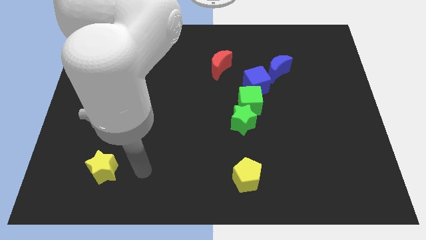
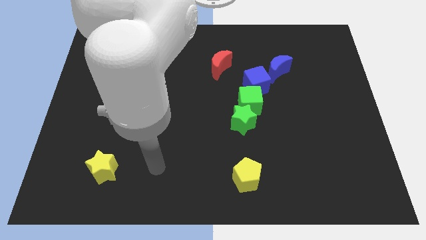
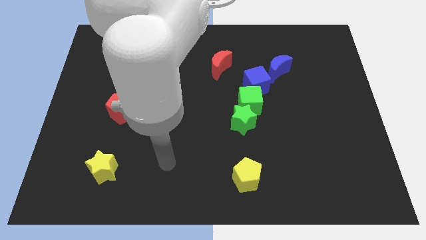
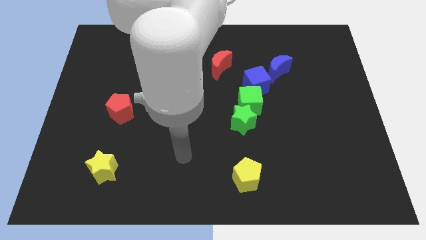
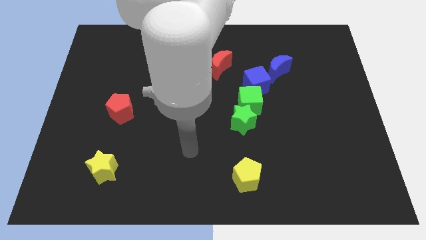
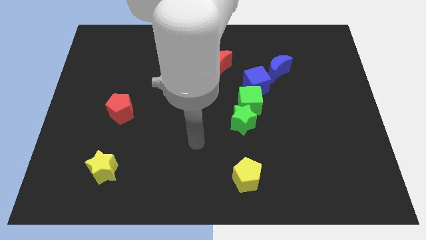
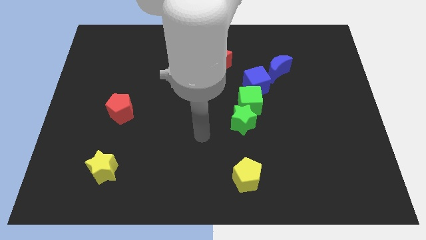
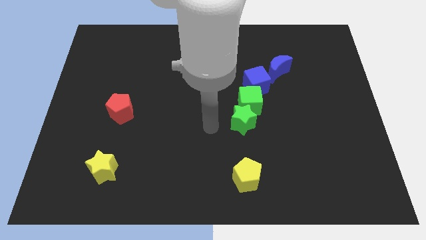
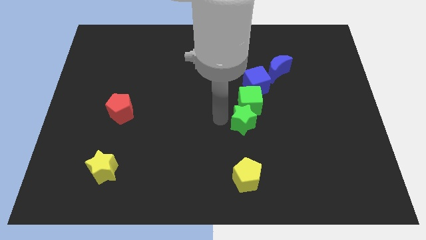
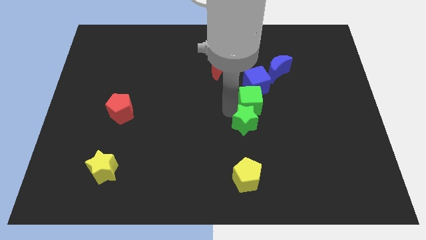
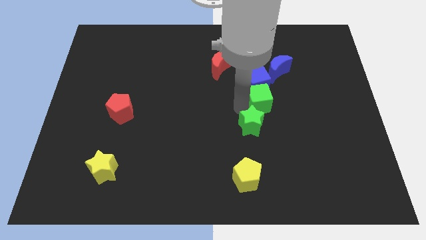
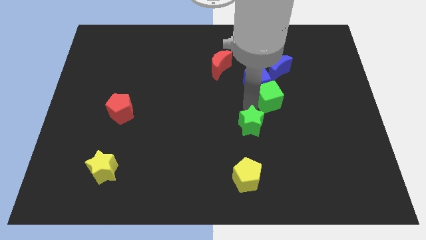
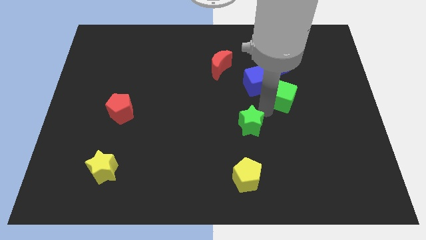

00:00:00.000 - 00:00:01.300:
separate the green star from the green cube

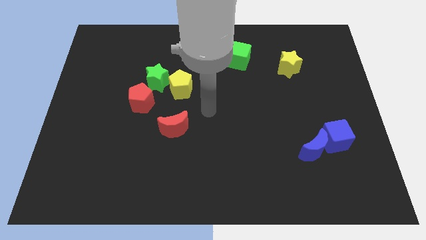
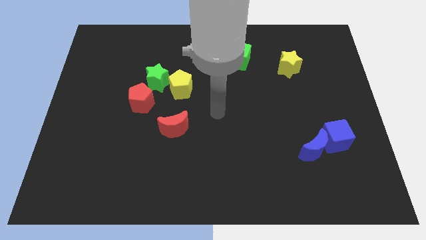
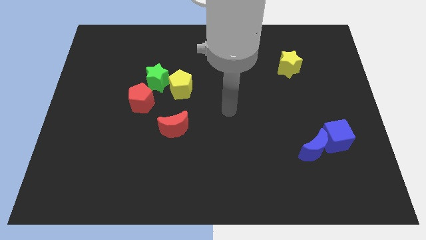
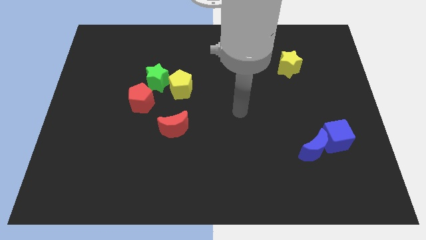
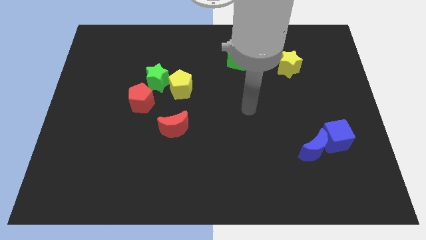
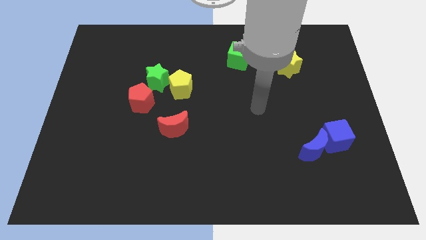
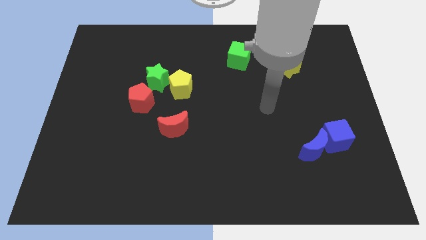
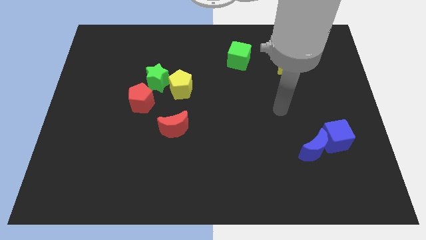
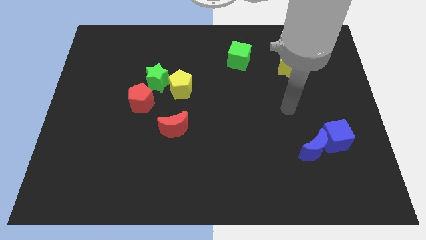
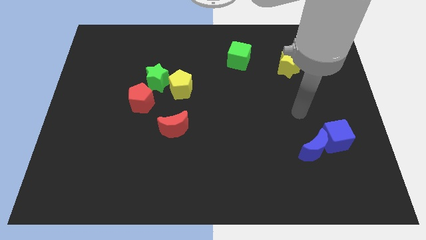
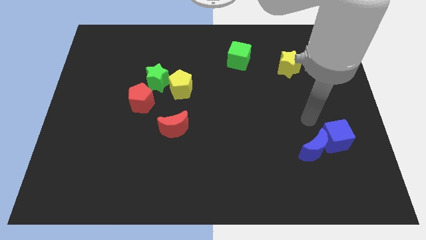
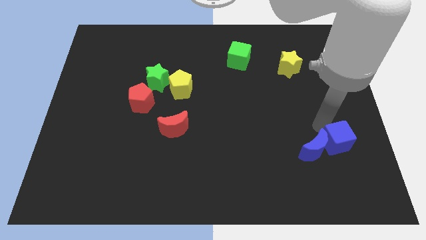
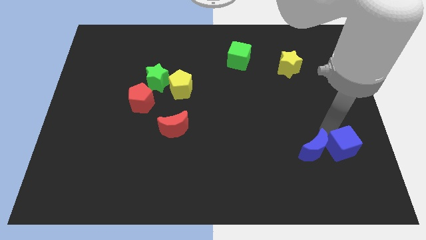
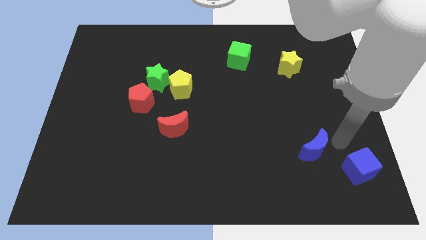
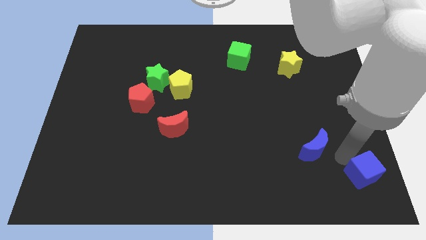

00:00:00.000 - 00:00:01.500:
separate the blue moon from the blue cube

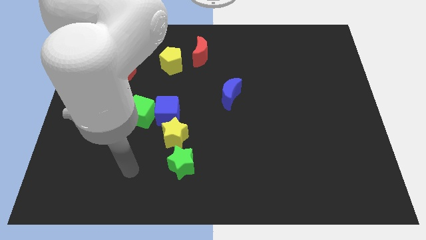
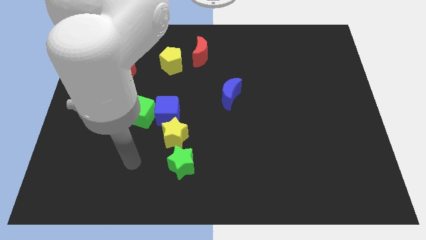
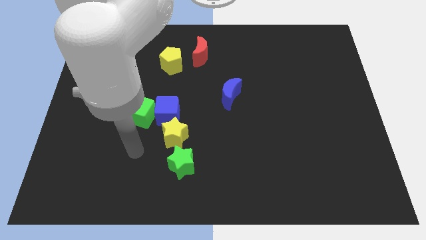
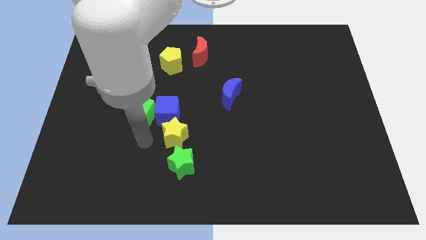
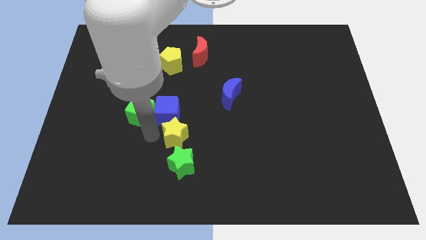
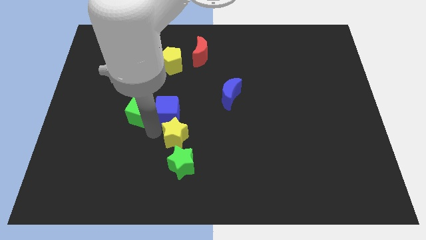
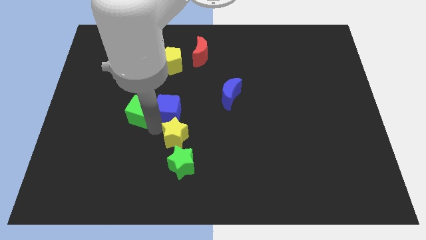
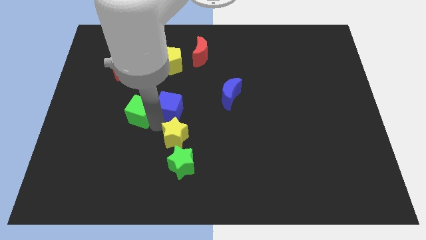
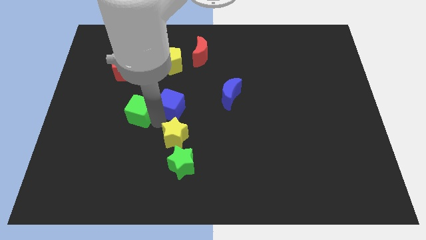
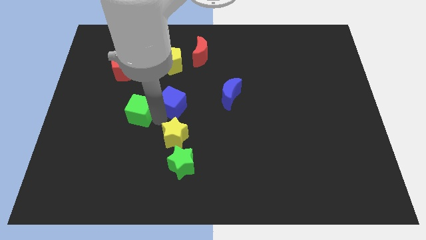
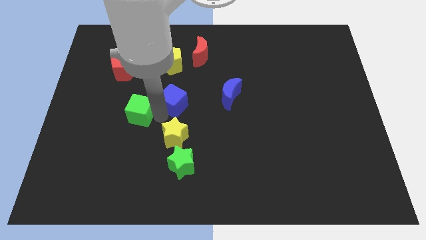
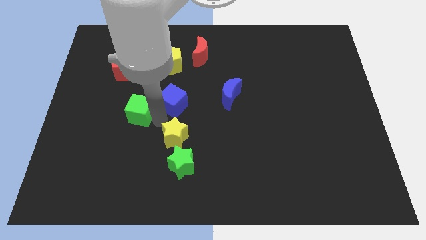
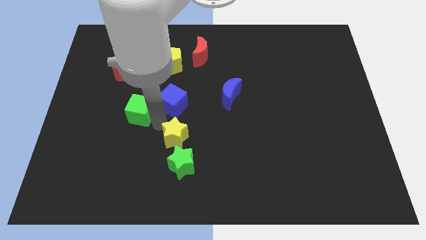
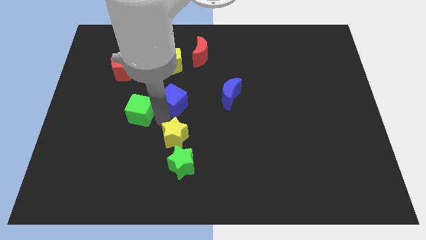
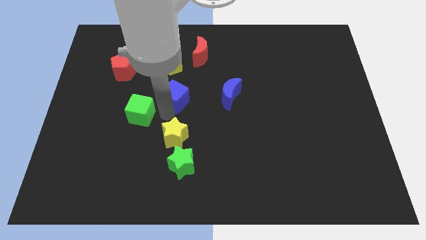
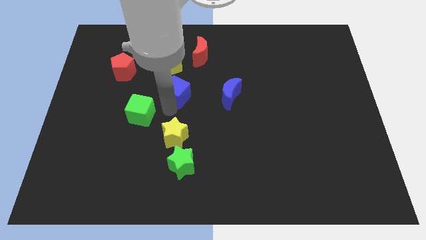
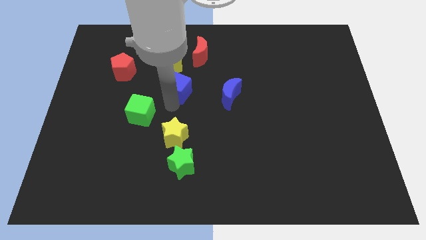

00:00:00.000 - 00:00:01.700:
separate the blue cube from the green cube and yellow star

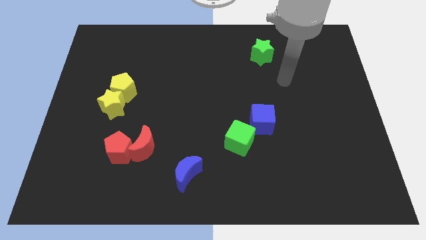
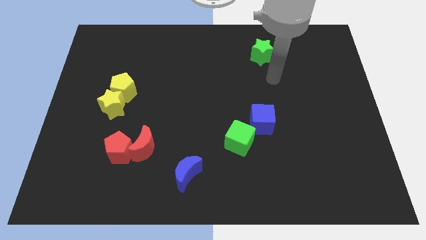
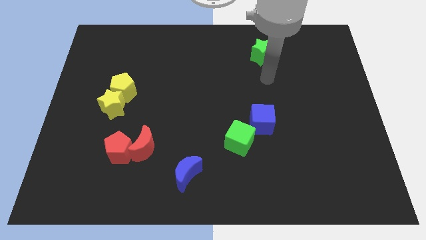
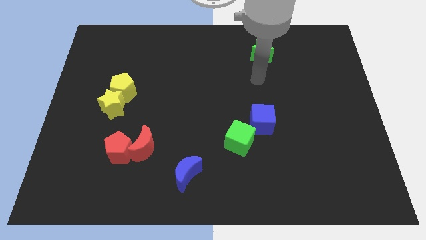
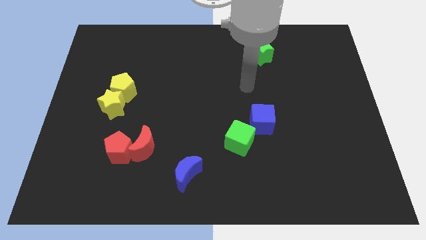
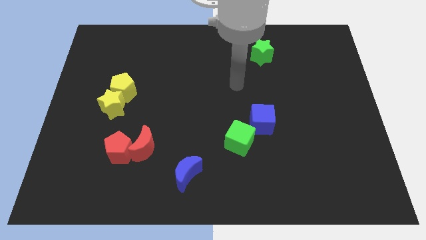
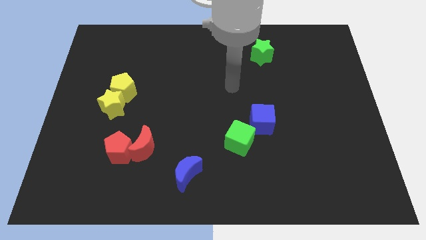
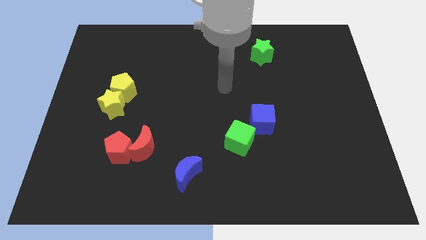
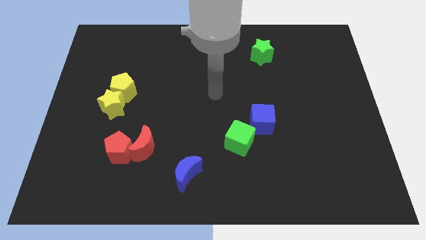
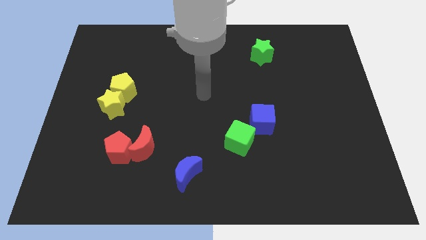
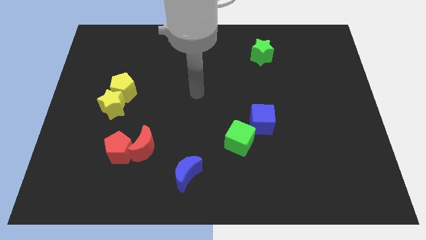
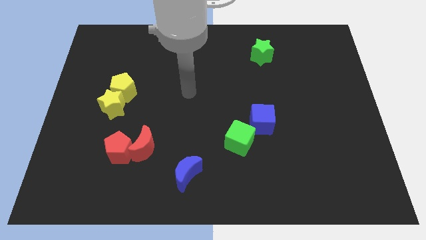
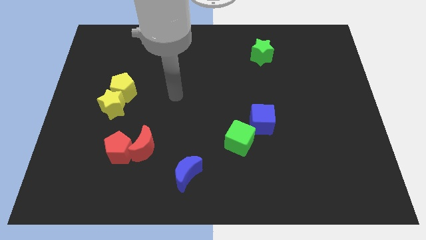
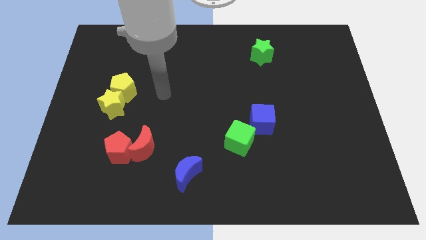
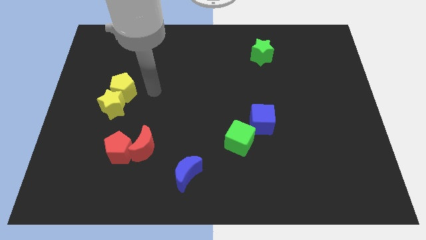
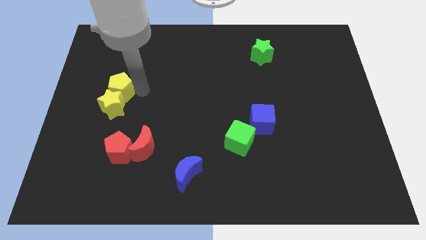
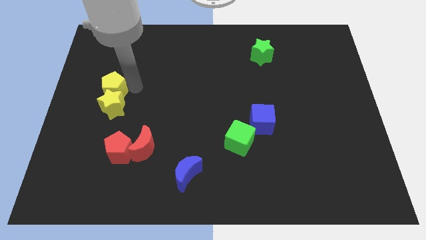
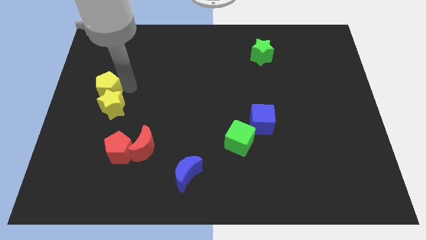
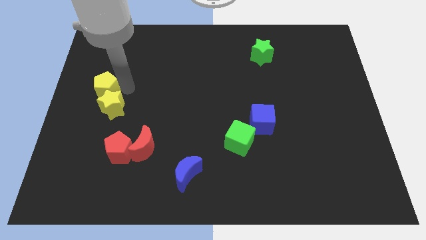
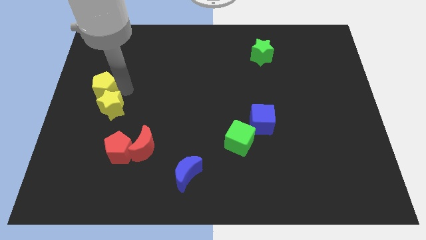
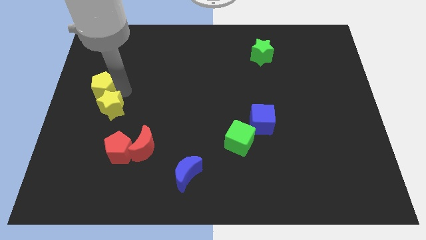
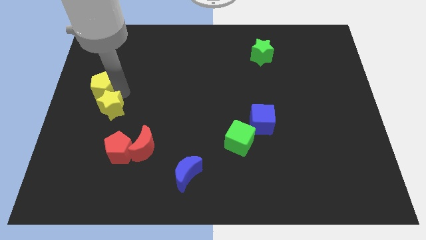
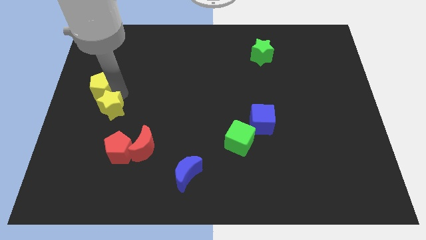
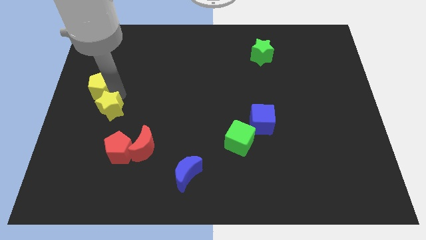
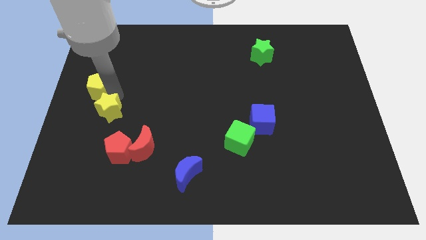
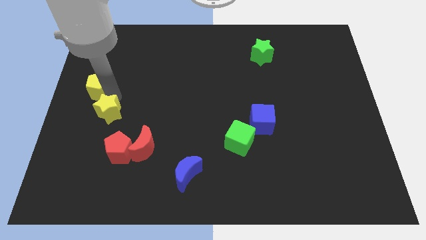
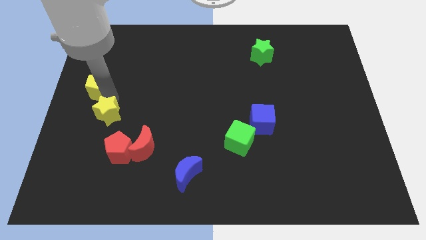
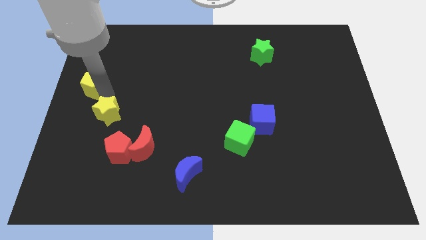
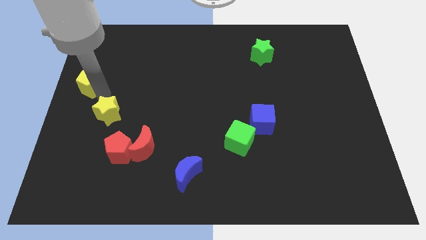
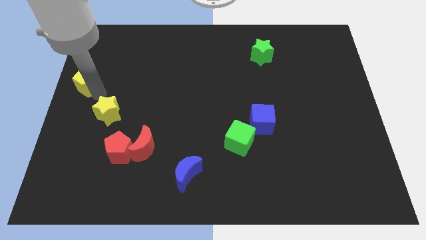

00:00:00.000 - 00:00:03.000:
separate the yellow star from the yellow pentagon

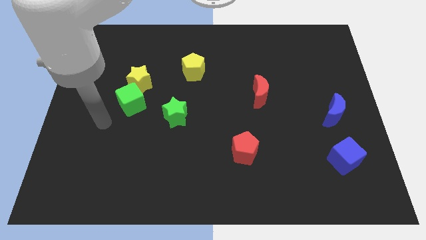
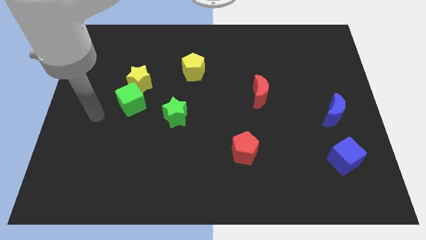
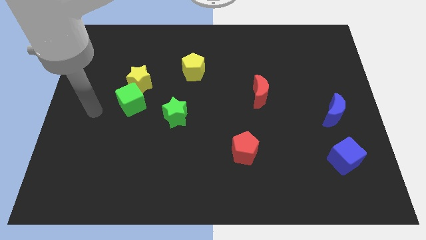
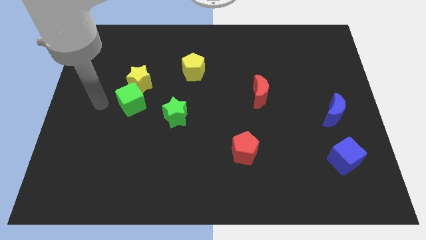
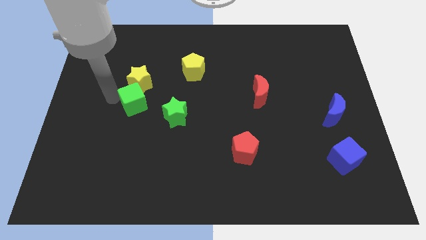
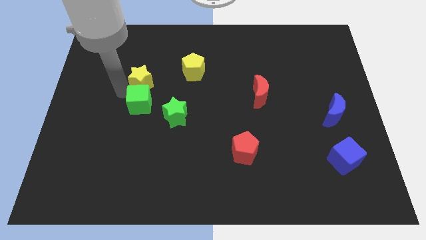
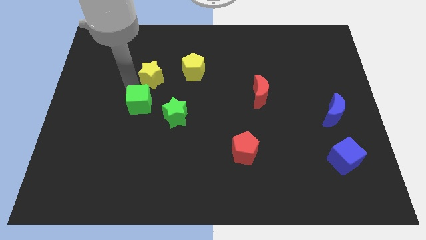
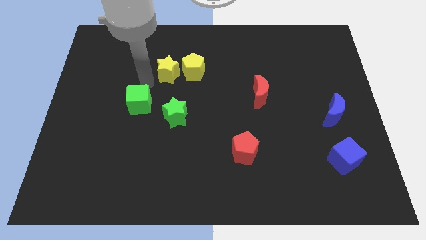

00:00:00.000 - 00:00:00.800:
move the green cube away from the yellow star

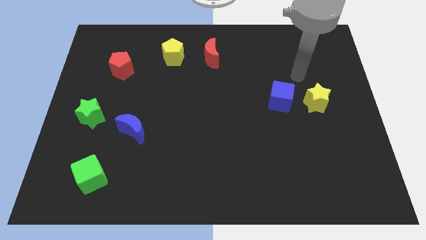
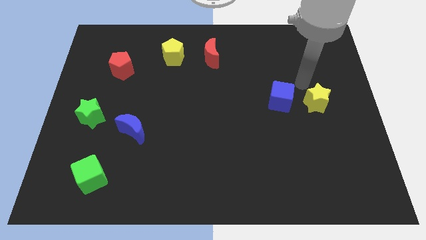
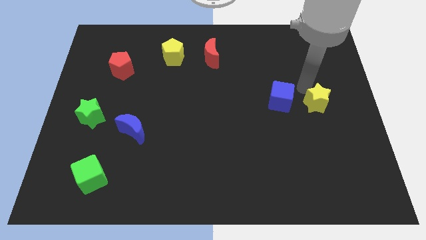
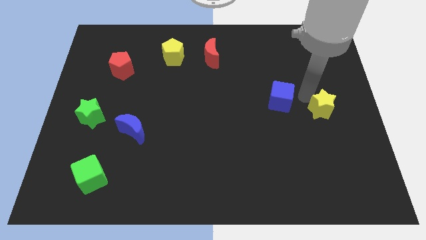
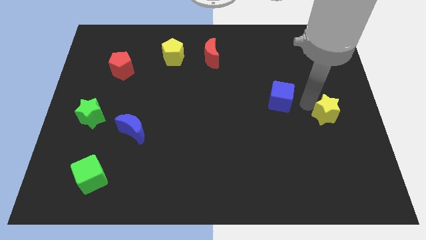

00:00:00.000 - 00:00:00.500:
move the blue cube away from the yellow star

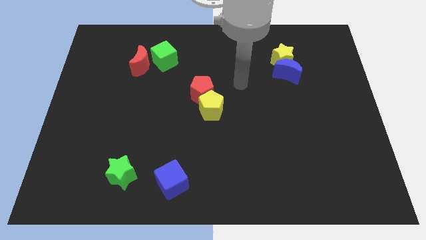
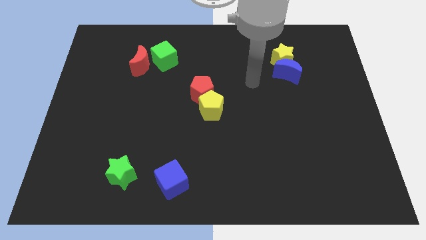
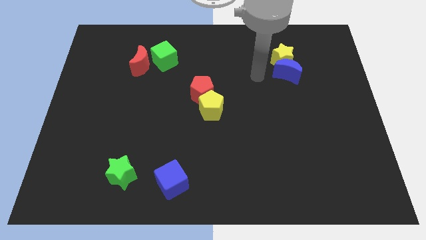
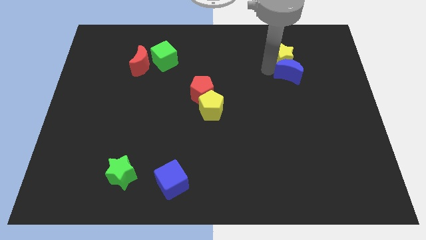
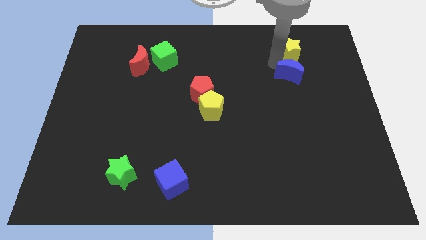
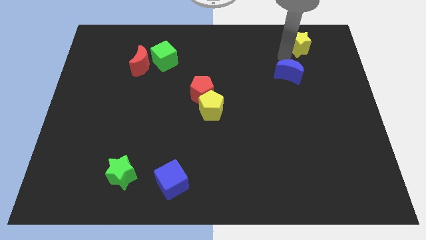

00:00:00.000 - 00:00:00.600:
pull the blue moon apart from the yellow star
